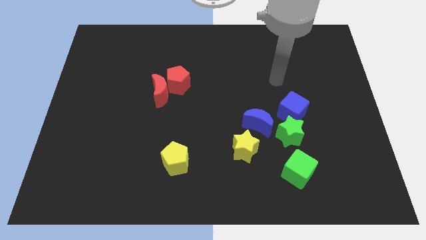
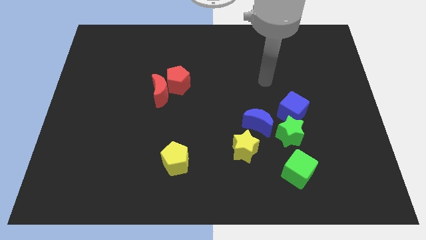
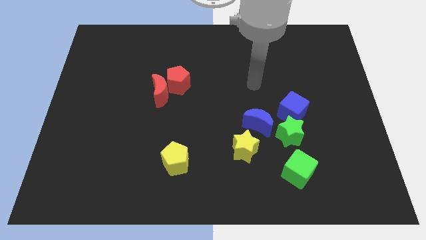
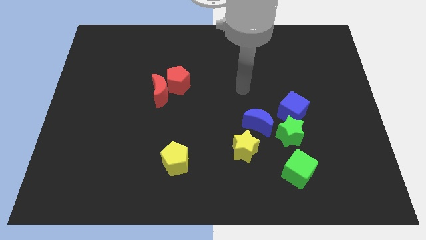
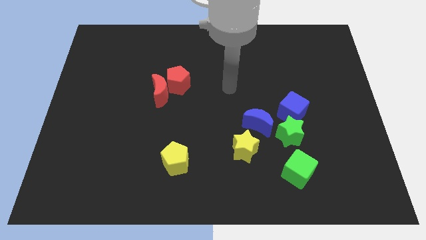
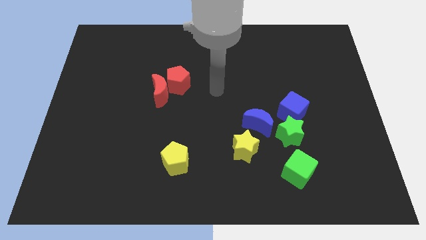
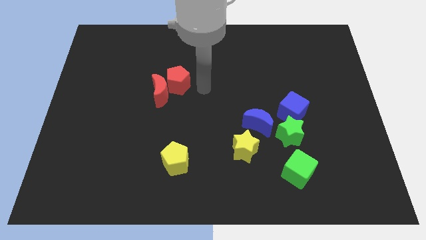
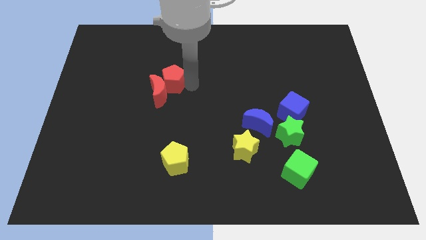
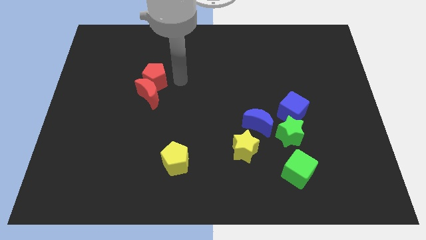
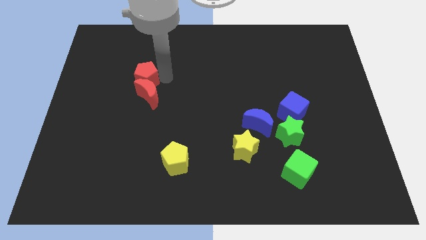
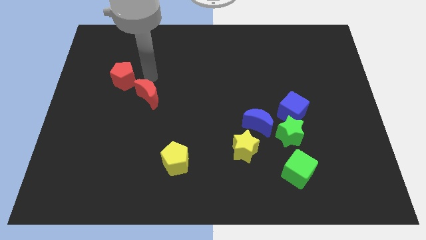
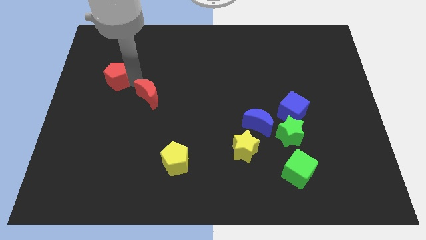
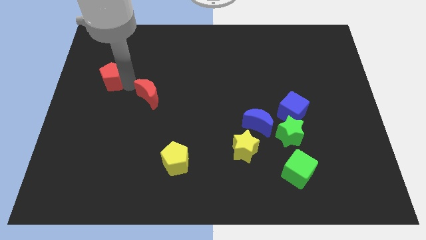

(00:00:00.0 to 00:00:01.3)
move the red moon away from the red pentagon

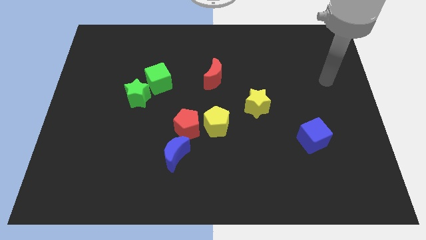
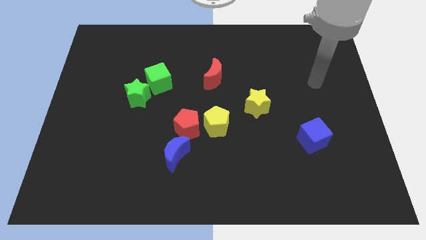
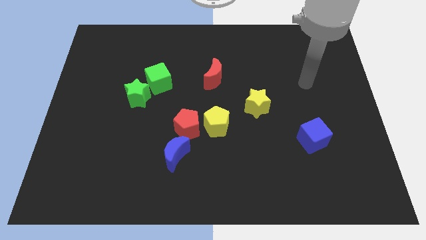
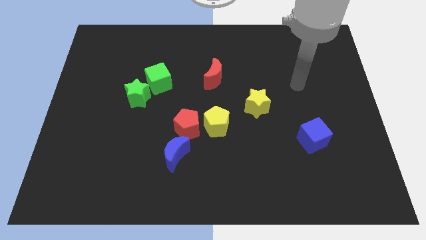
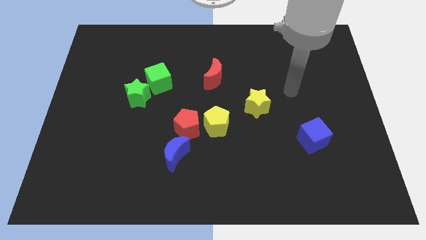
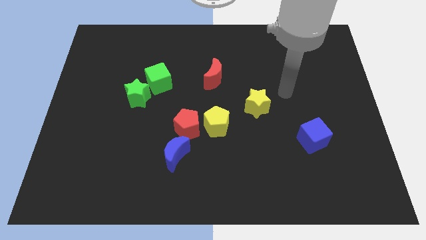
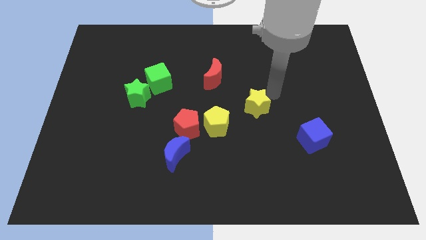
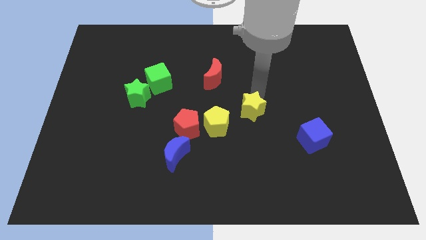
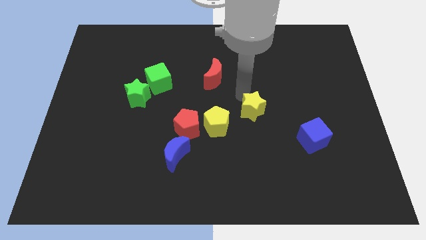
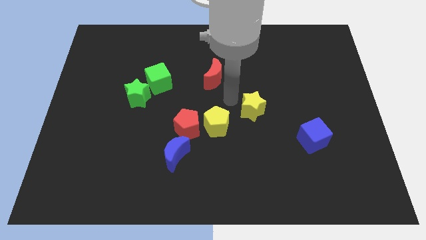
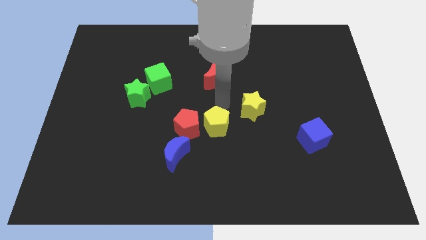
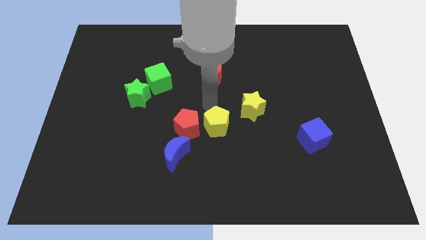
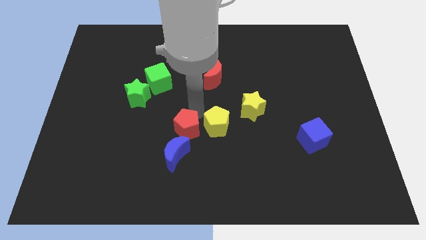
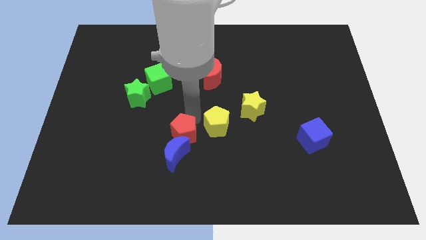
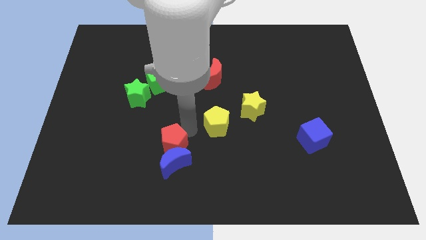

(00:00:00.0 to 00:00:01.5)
pull the yellow pentagon apart from the red pentagon

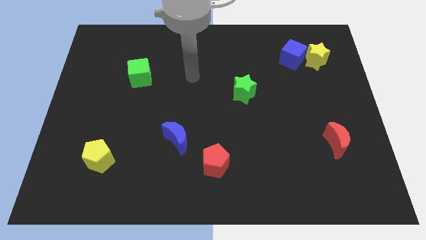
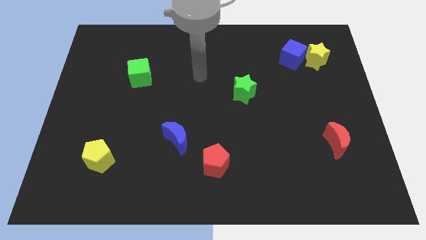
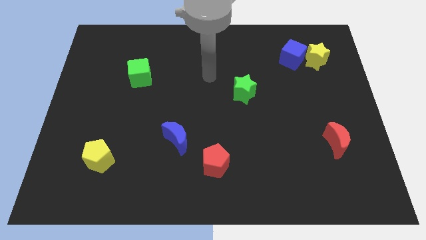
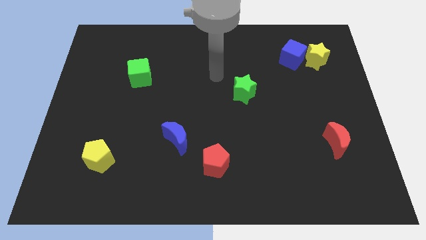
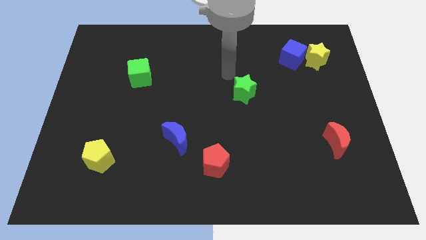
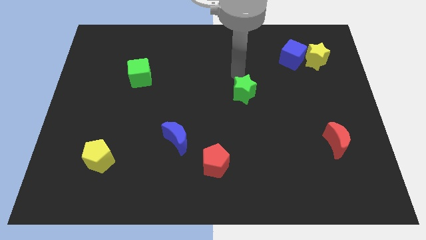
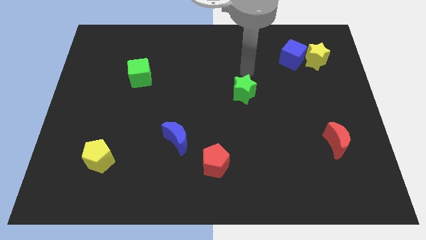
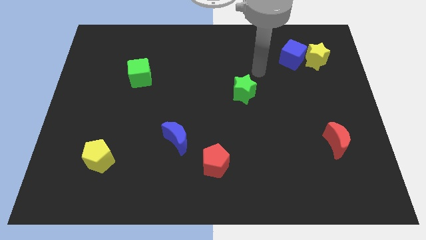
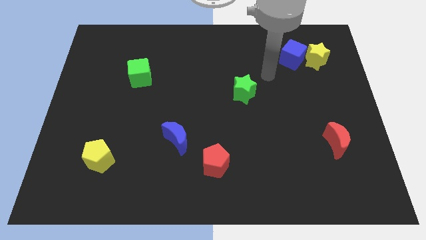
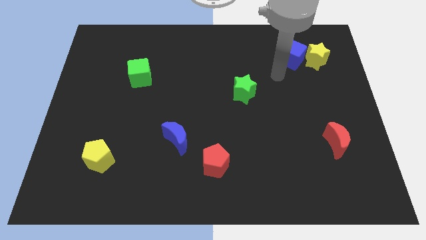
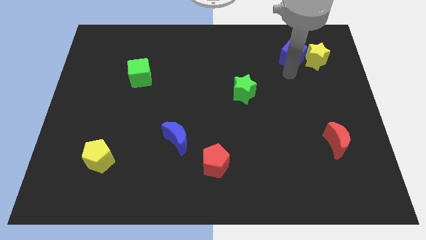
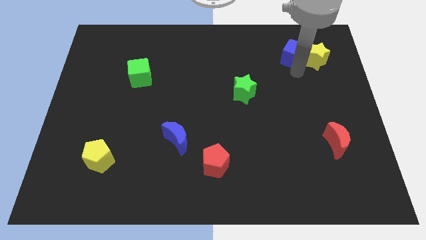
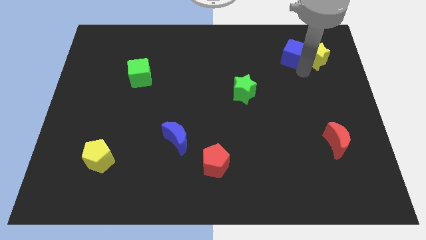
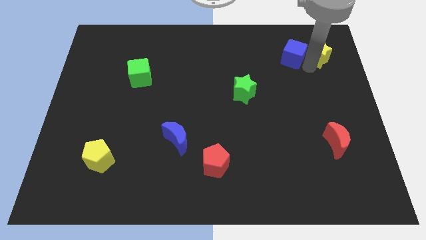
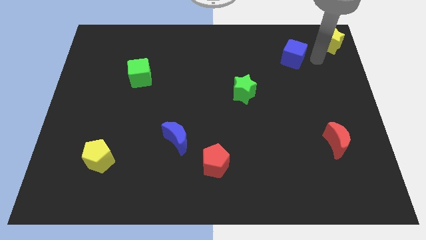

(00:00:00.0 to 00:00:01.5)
separate the blue cube from the yellow star

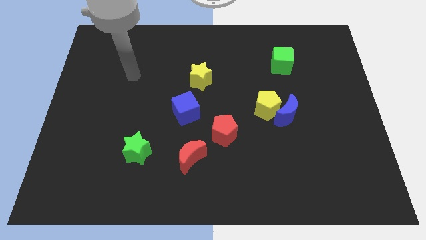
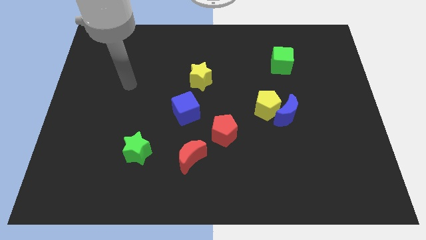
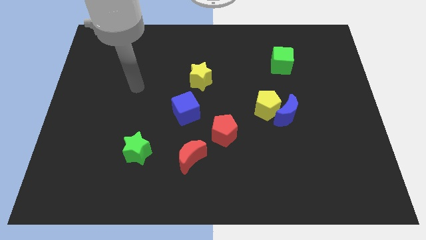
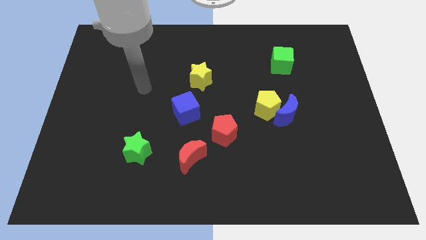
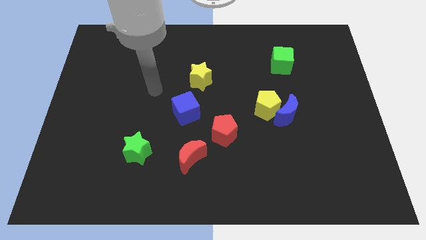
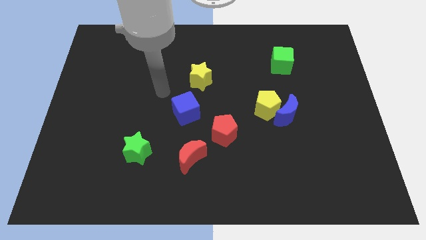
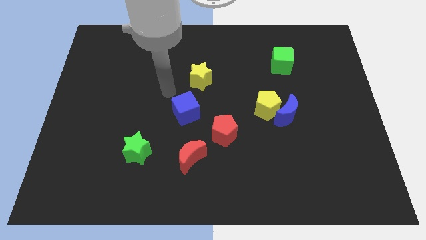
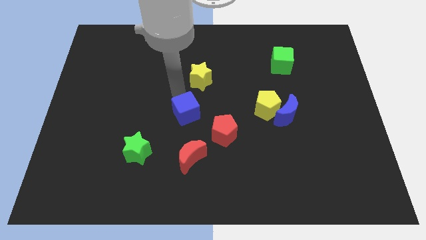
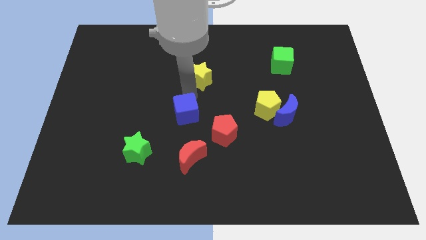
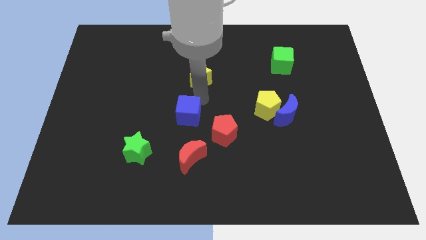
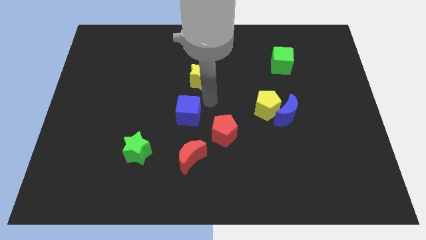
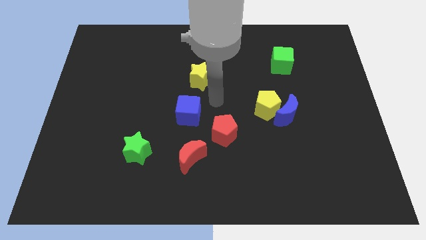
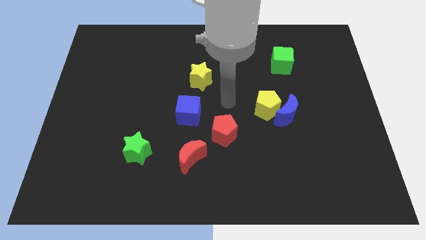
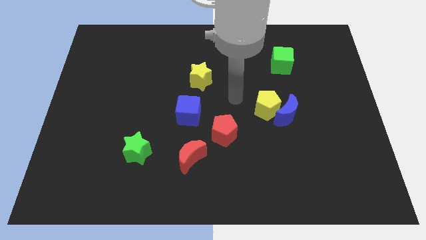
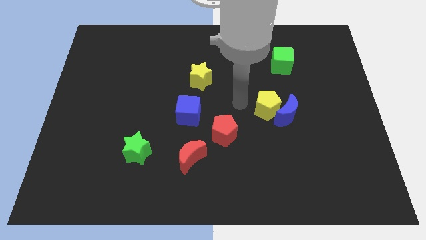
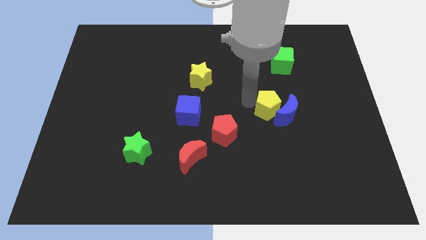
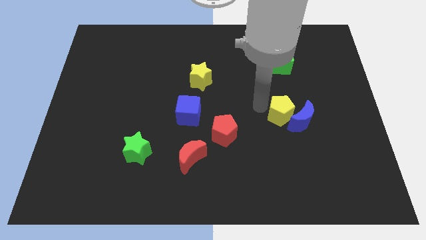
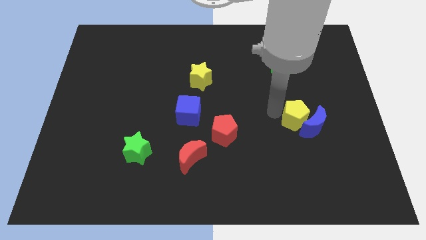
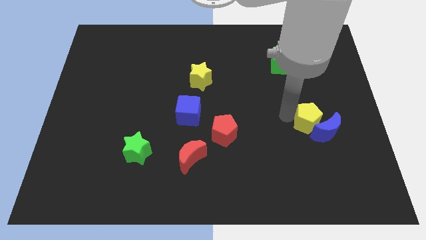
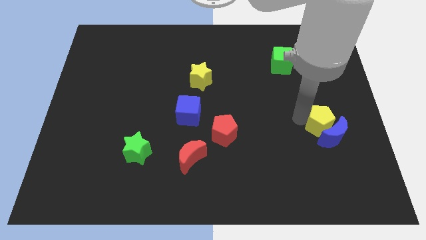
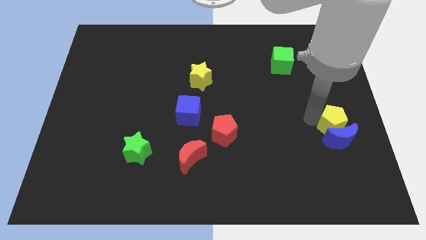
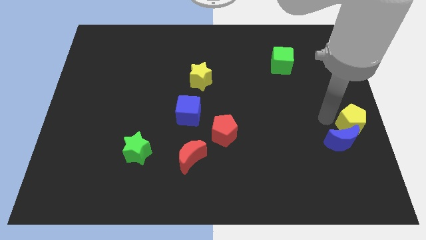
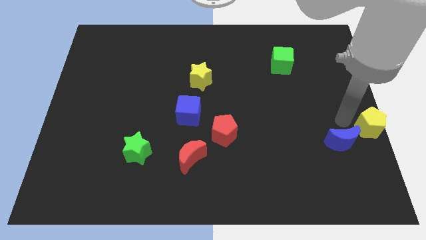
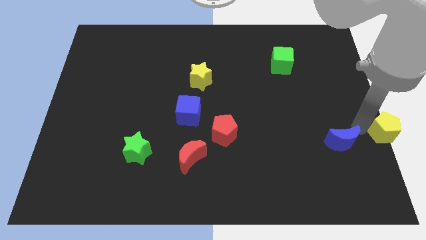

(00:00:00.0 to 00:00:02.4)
separate the blue moon from the yellow pentagon

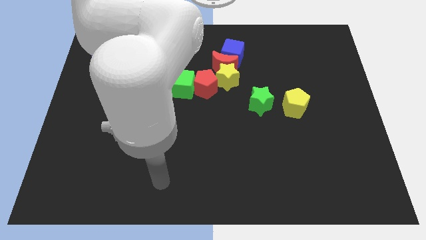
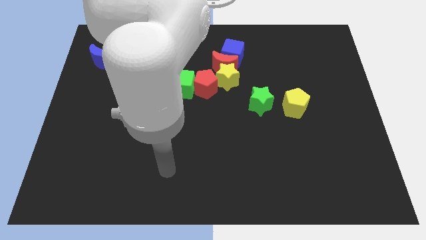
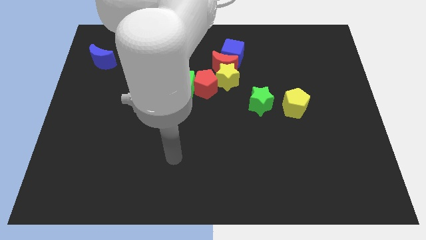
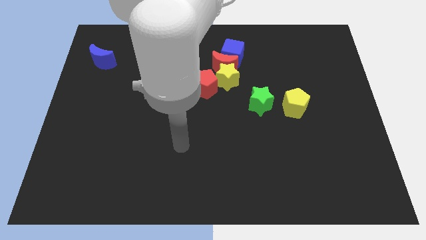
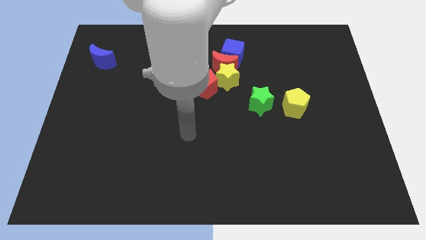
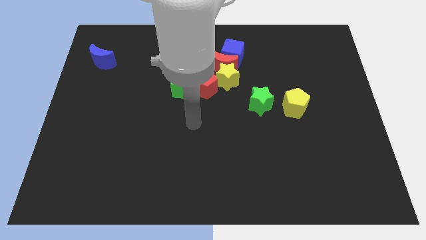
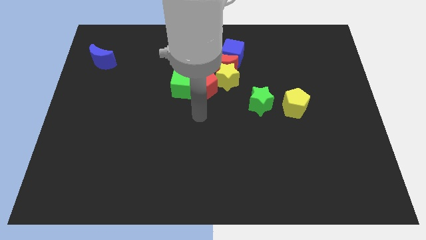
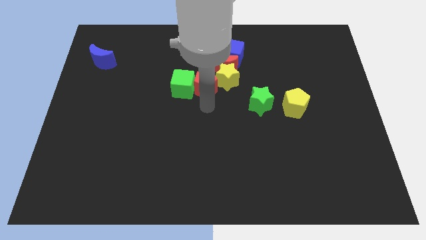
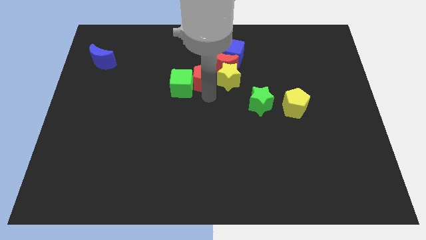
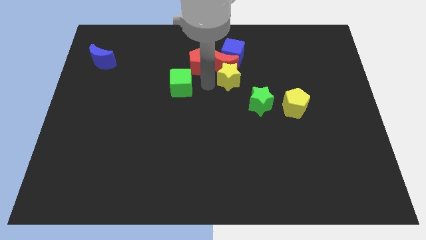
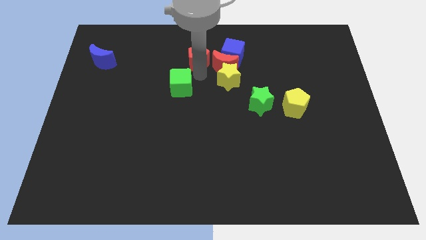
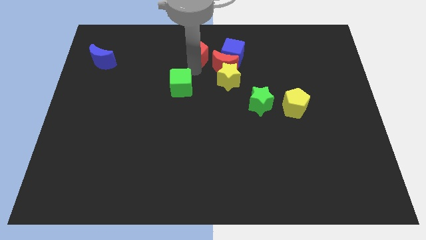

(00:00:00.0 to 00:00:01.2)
pull the green cube apart from the red pentagon

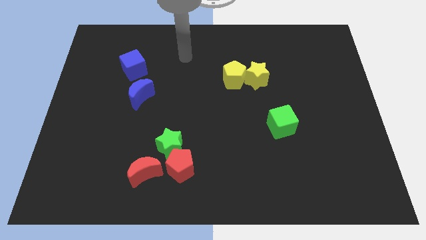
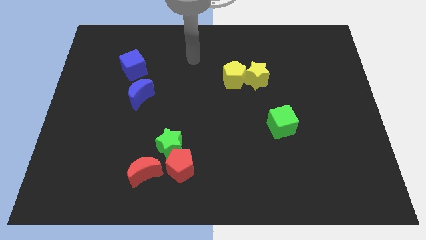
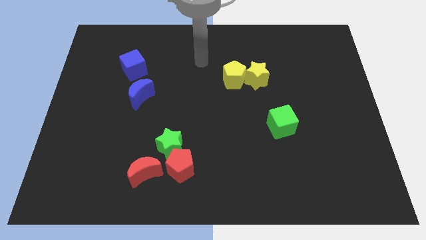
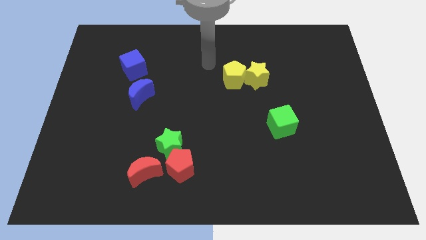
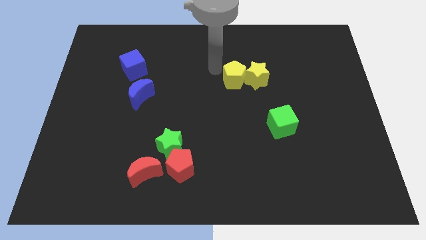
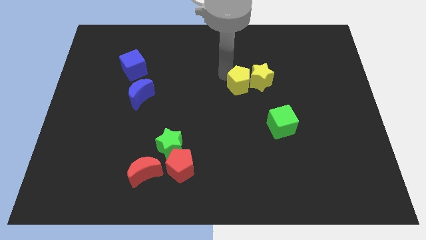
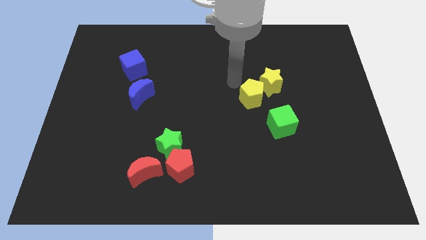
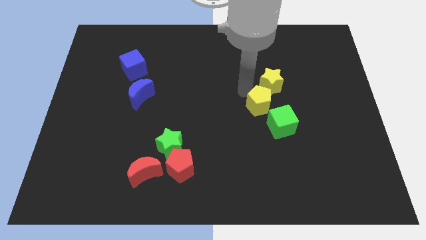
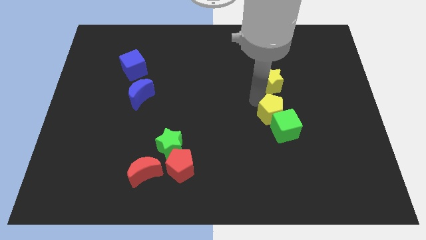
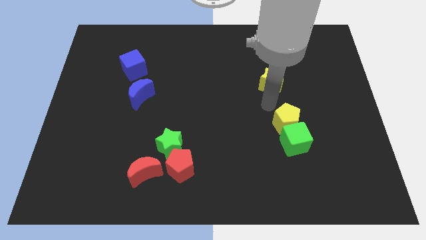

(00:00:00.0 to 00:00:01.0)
separate the yellow star from the yellow pentagon

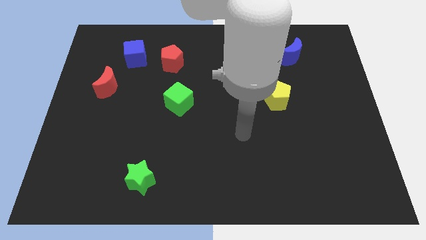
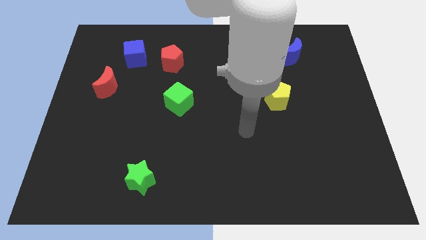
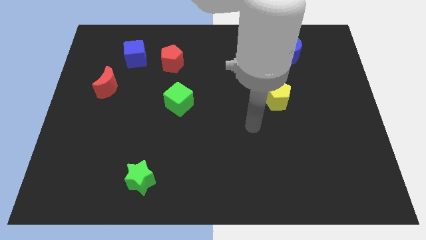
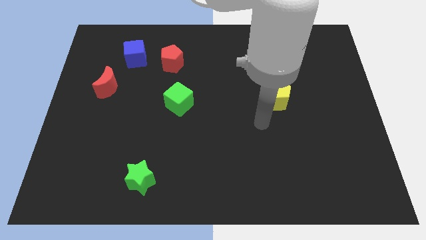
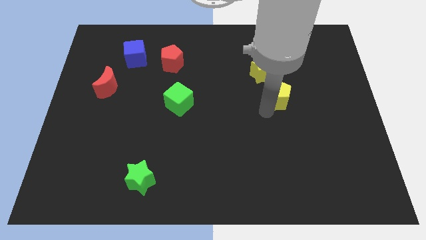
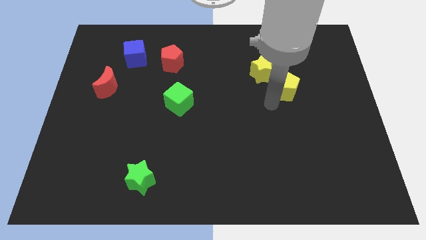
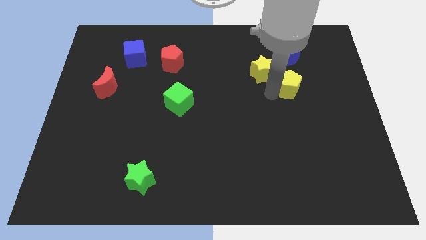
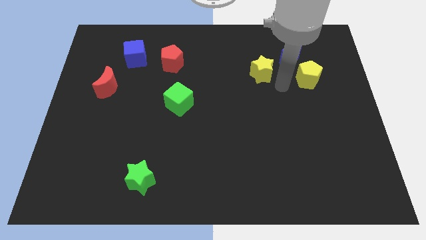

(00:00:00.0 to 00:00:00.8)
pull the yellow star apart from the yellow pentagon
